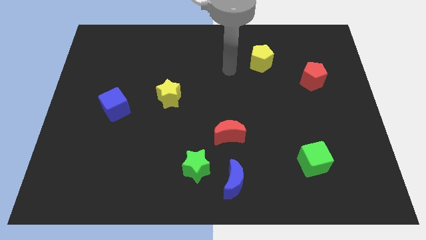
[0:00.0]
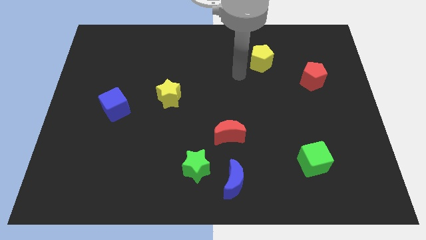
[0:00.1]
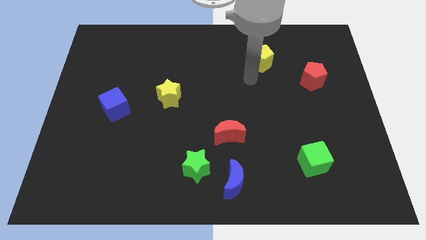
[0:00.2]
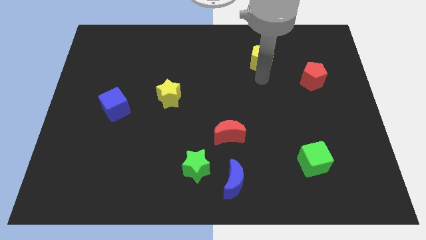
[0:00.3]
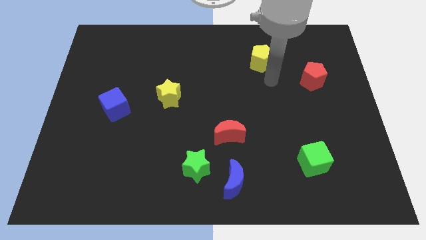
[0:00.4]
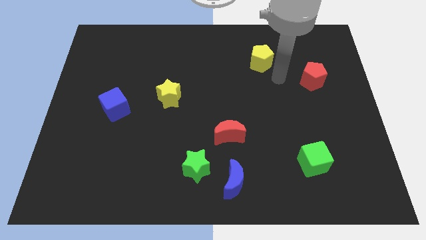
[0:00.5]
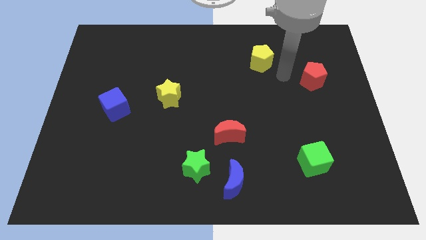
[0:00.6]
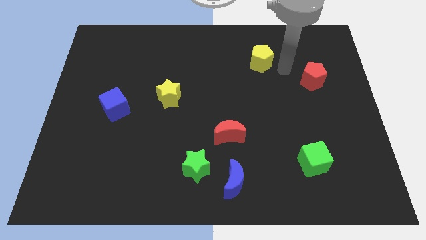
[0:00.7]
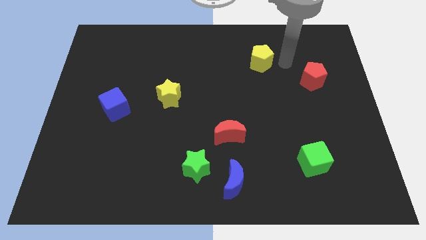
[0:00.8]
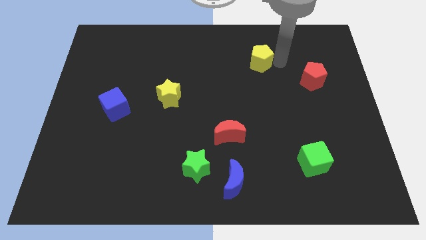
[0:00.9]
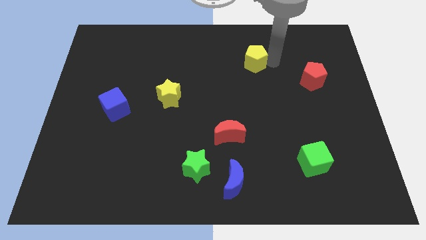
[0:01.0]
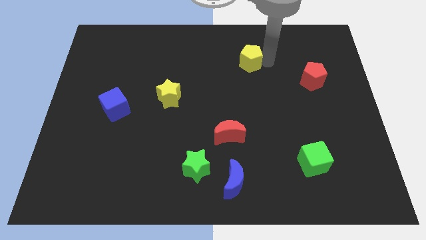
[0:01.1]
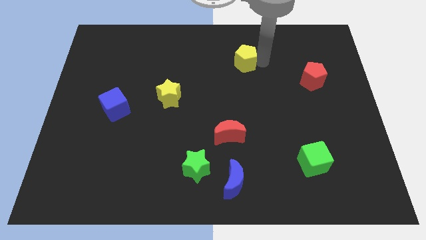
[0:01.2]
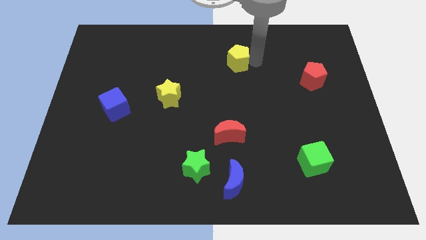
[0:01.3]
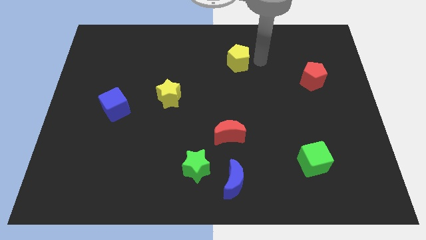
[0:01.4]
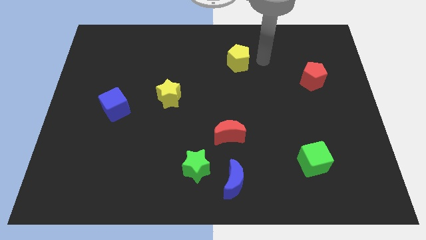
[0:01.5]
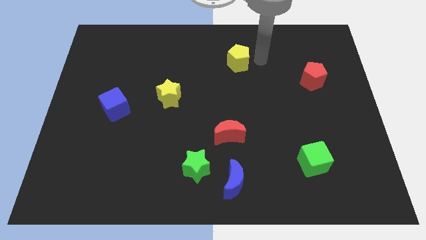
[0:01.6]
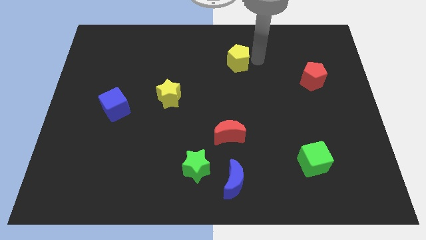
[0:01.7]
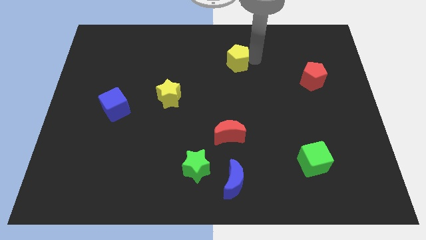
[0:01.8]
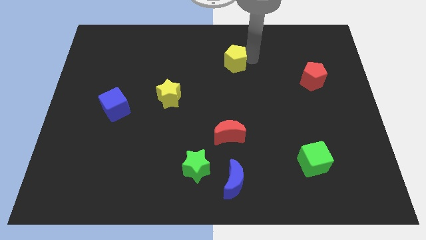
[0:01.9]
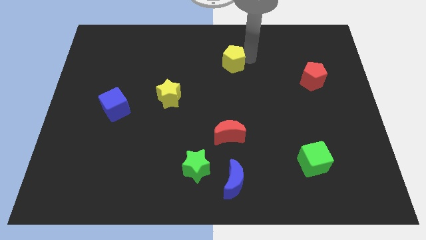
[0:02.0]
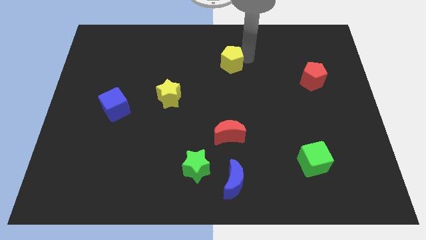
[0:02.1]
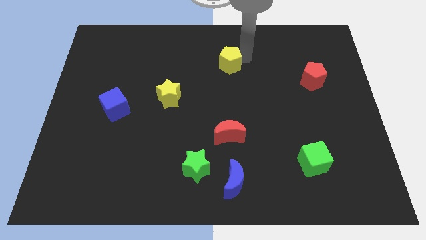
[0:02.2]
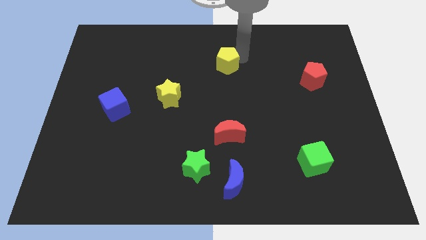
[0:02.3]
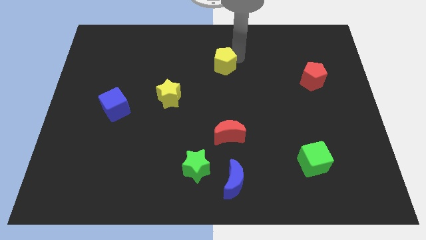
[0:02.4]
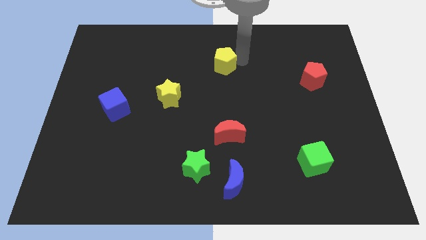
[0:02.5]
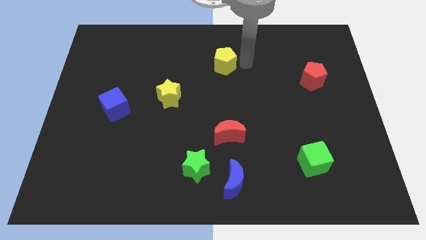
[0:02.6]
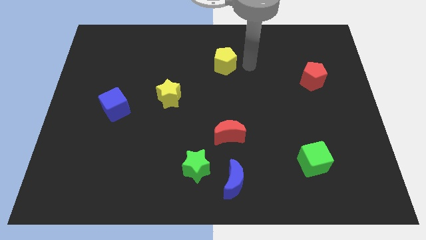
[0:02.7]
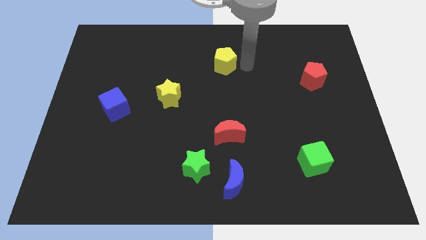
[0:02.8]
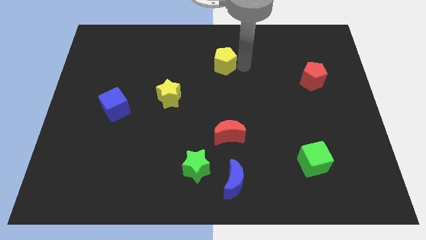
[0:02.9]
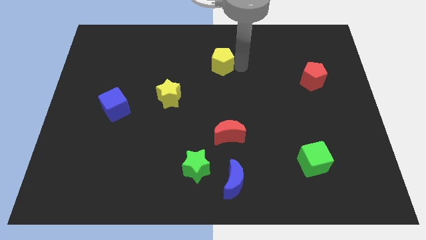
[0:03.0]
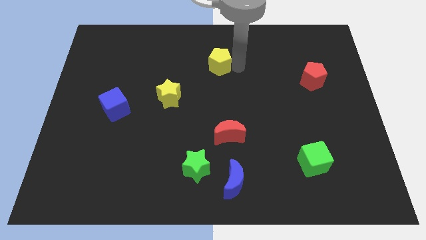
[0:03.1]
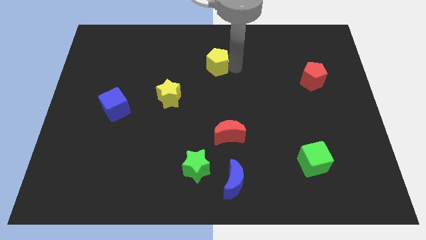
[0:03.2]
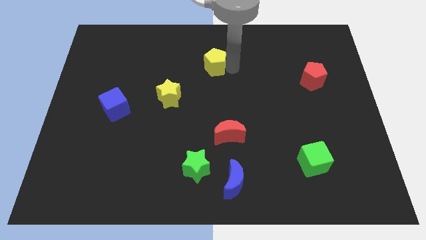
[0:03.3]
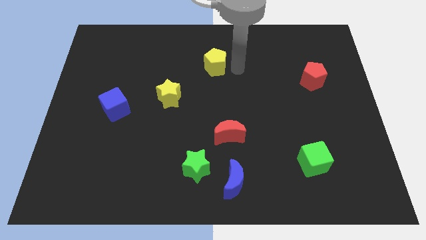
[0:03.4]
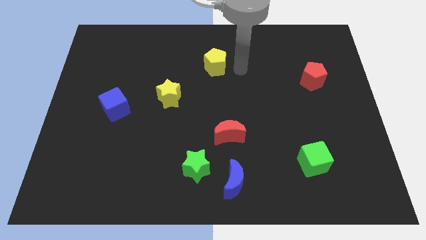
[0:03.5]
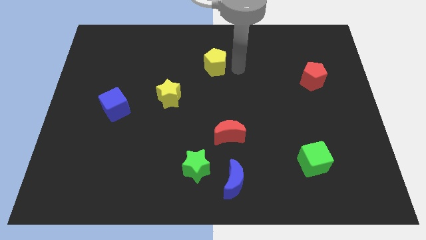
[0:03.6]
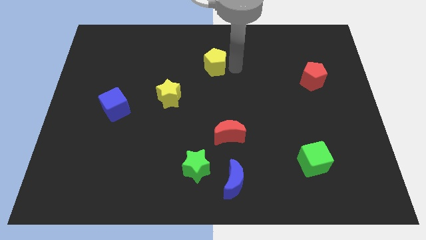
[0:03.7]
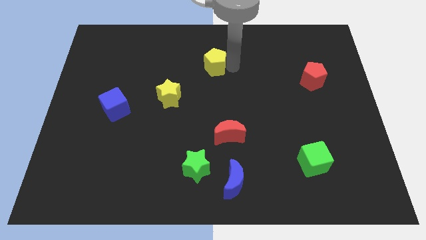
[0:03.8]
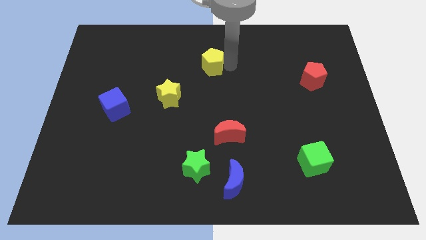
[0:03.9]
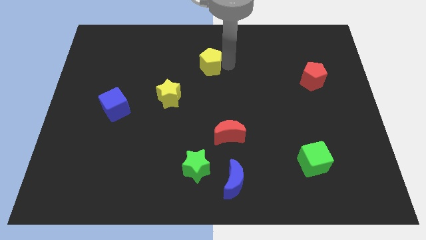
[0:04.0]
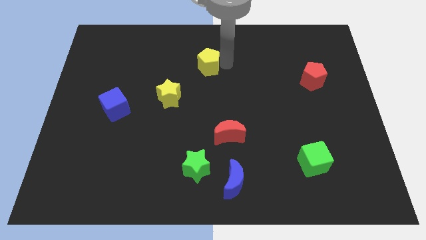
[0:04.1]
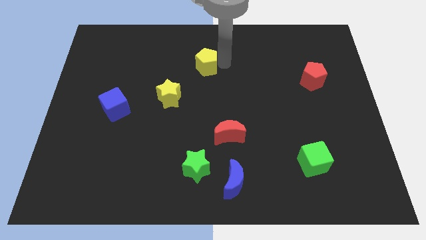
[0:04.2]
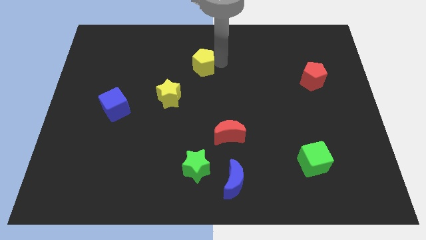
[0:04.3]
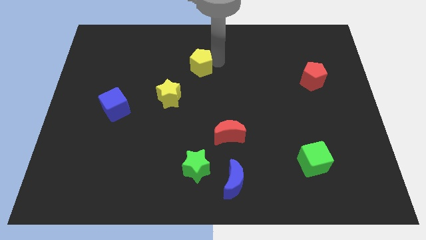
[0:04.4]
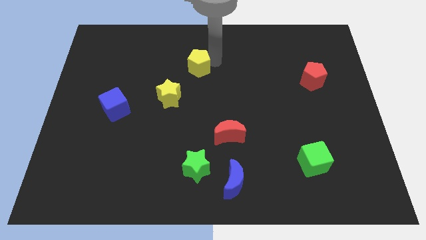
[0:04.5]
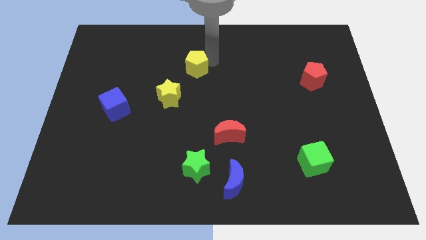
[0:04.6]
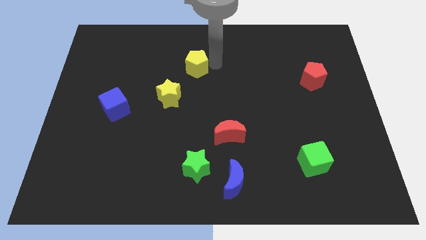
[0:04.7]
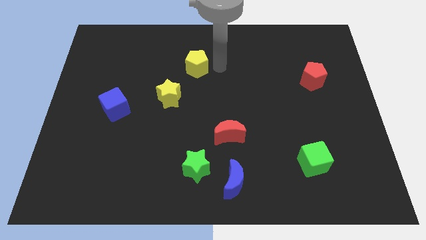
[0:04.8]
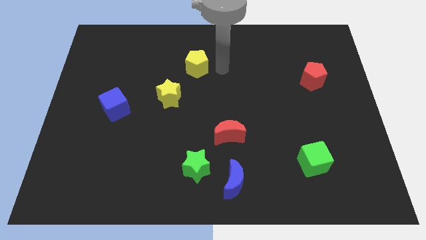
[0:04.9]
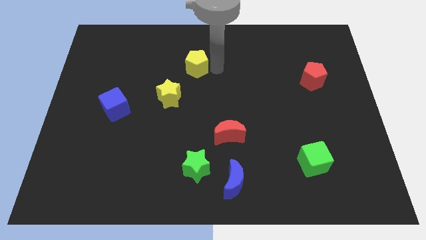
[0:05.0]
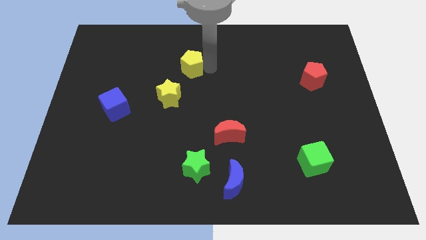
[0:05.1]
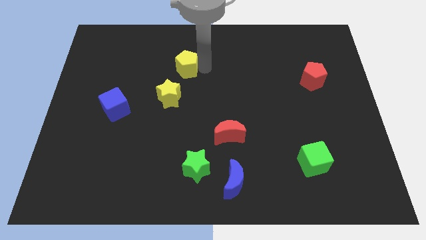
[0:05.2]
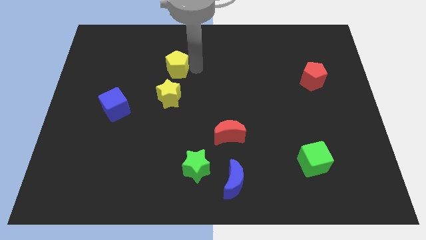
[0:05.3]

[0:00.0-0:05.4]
slide the yellow pentagon to the left

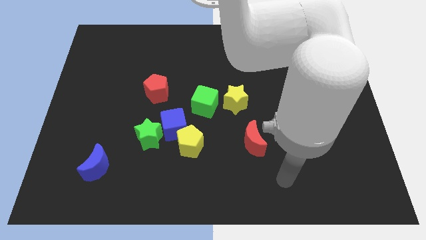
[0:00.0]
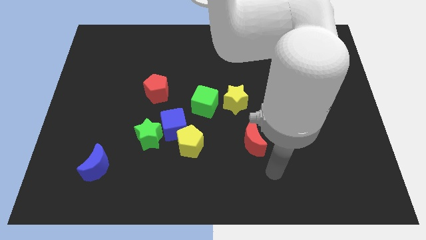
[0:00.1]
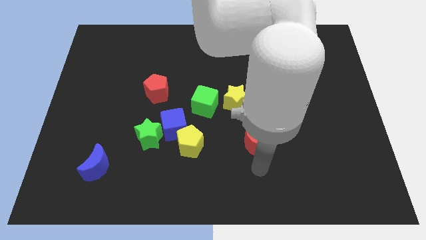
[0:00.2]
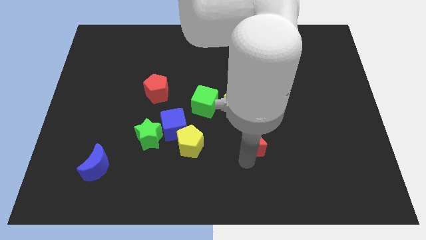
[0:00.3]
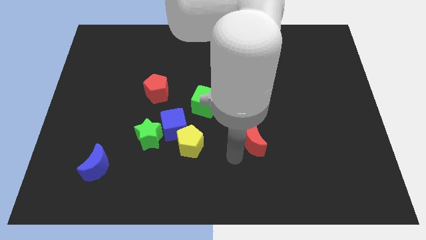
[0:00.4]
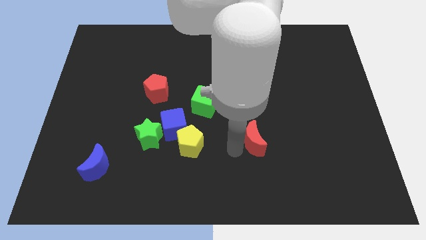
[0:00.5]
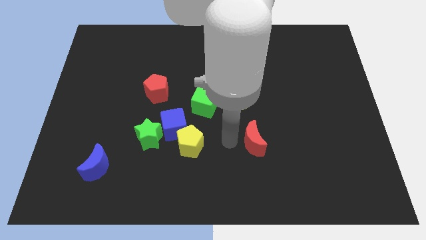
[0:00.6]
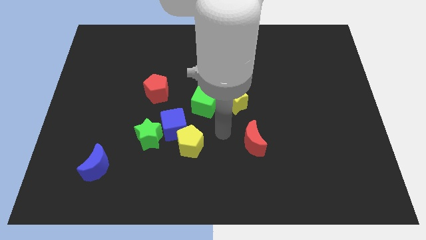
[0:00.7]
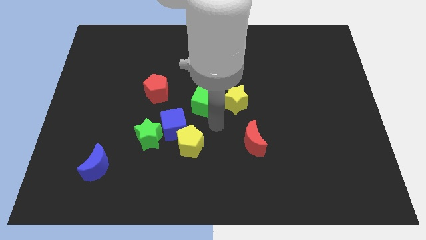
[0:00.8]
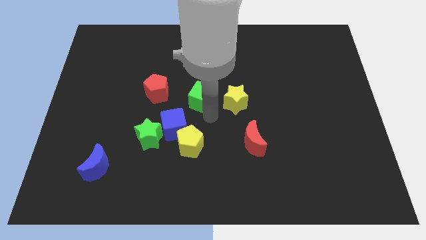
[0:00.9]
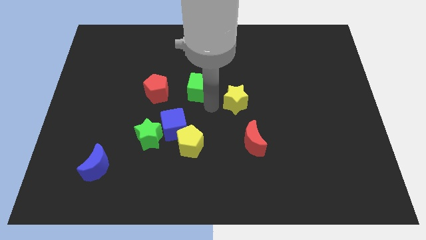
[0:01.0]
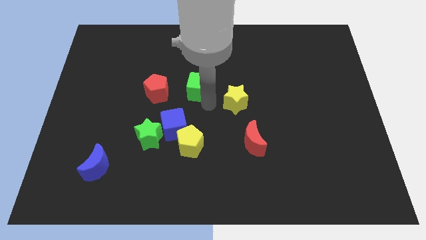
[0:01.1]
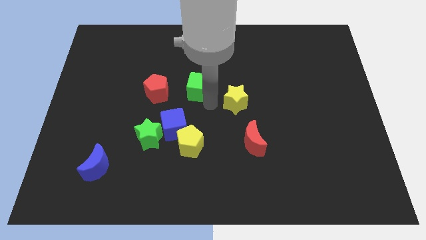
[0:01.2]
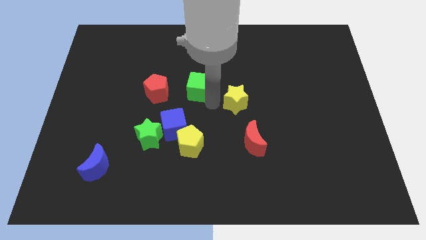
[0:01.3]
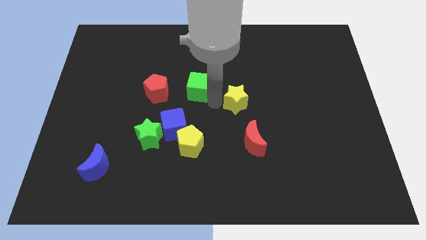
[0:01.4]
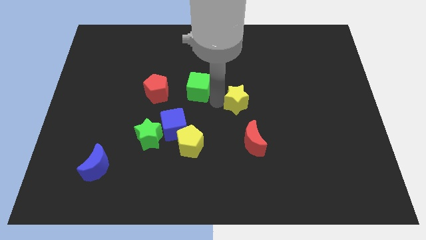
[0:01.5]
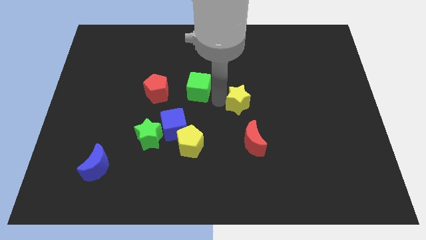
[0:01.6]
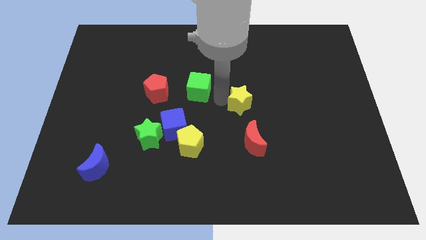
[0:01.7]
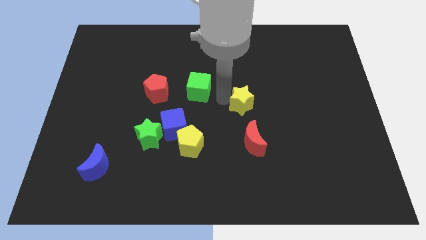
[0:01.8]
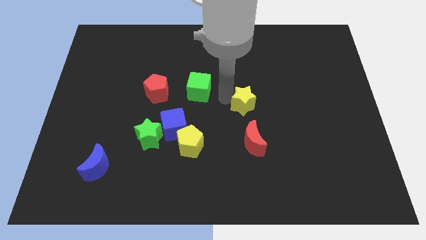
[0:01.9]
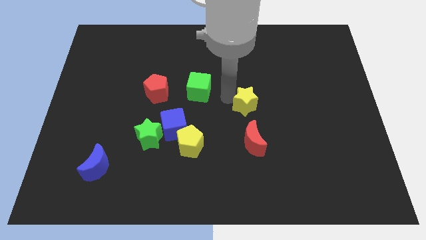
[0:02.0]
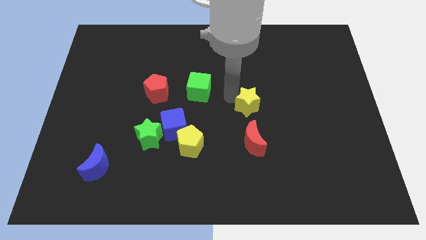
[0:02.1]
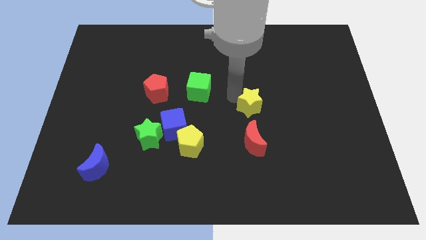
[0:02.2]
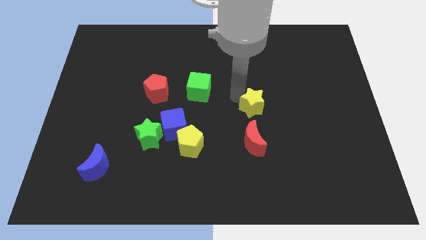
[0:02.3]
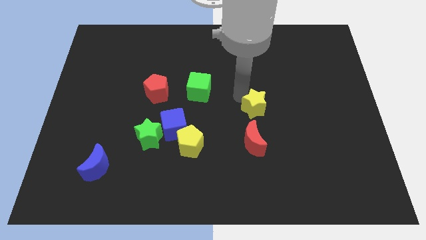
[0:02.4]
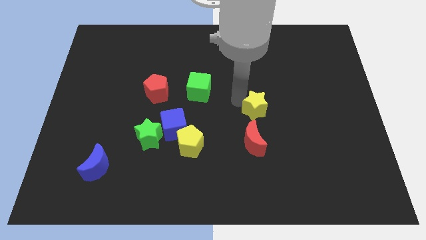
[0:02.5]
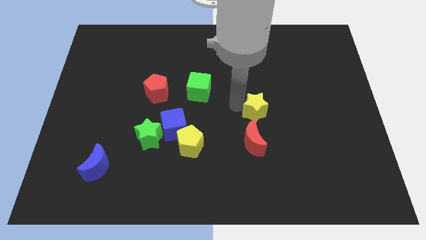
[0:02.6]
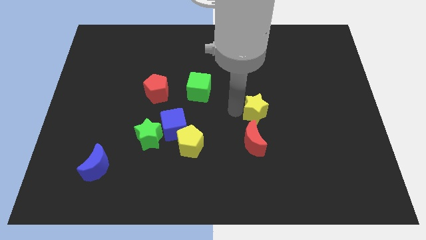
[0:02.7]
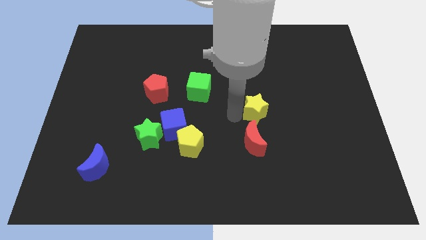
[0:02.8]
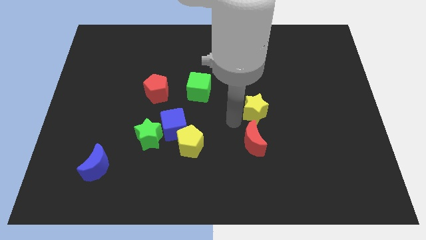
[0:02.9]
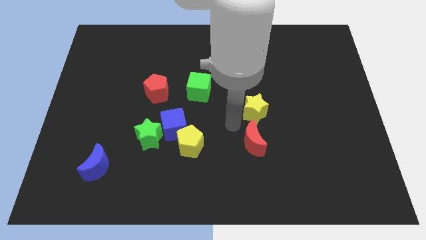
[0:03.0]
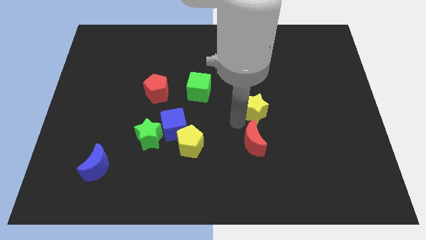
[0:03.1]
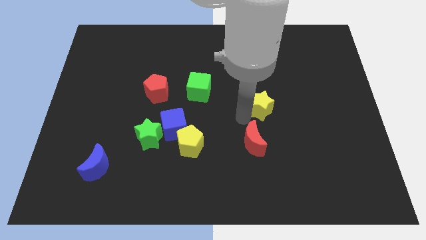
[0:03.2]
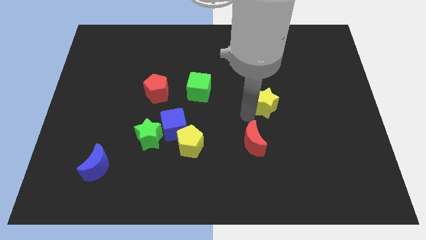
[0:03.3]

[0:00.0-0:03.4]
slightly move the yellow star right
